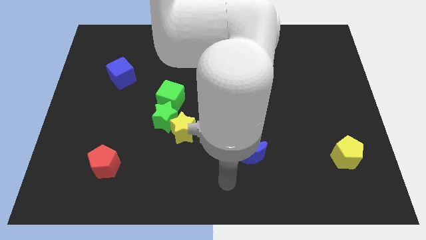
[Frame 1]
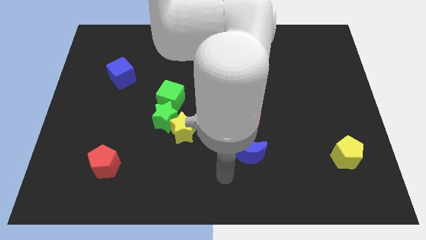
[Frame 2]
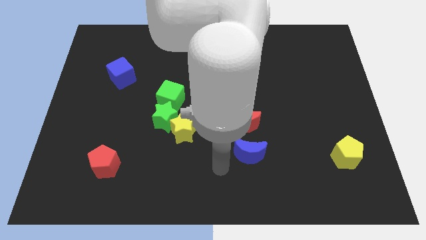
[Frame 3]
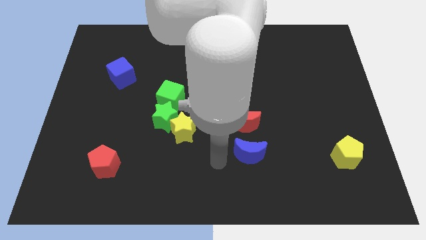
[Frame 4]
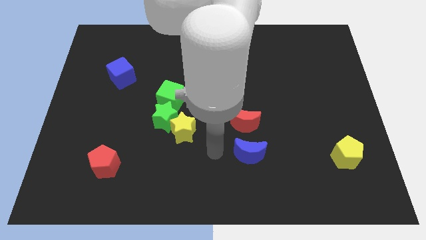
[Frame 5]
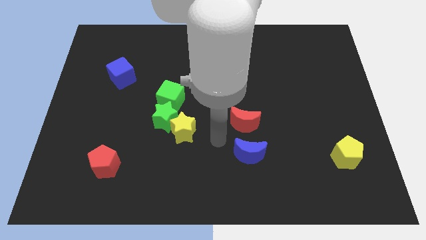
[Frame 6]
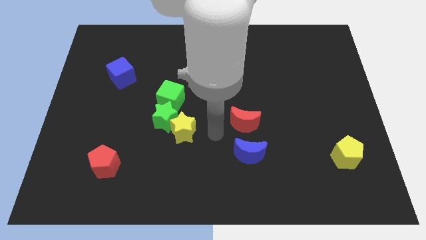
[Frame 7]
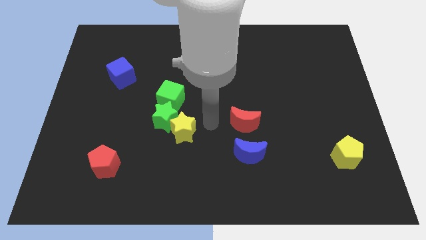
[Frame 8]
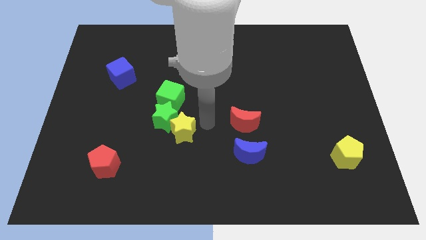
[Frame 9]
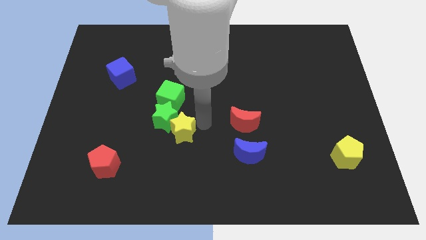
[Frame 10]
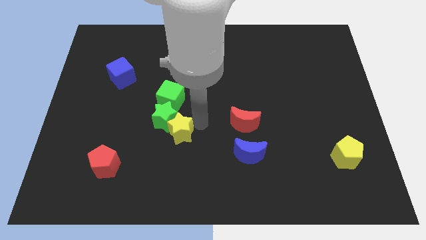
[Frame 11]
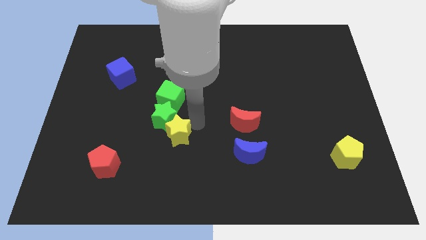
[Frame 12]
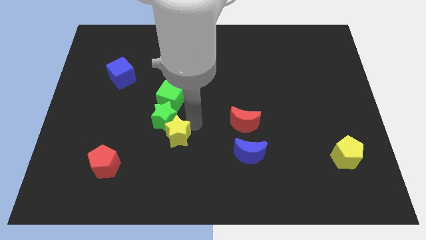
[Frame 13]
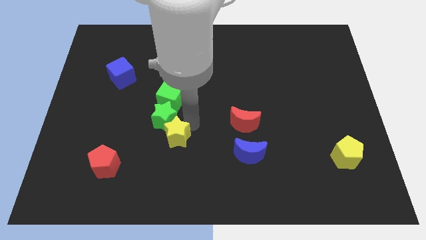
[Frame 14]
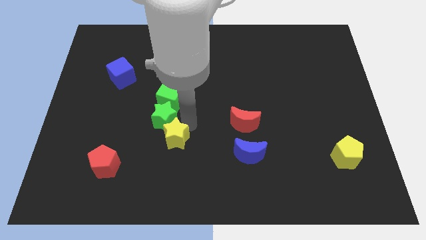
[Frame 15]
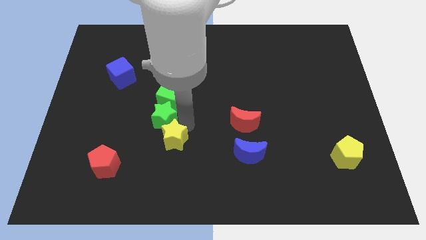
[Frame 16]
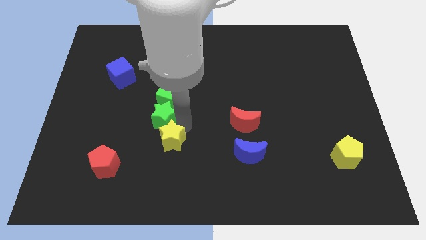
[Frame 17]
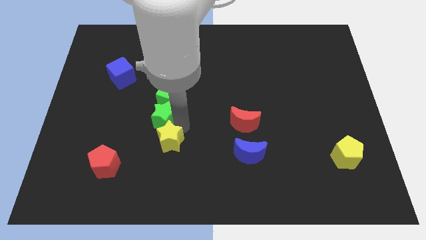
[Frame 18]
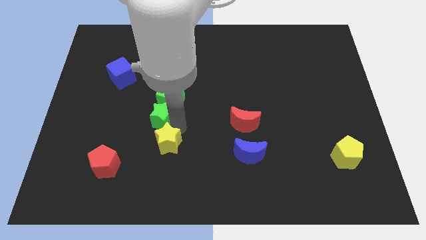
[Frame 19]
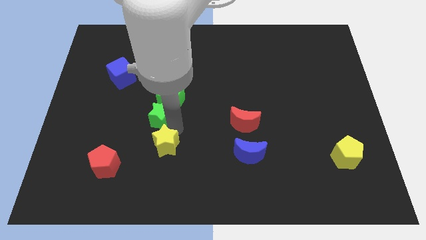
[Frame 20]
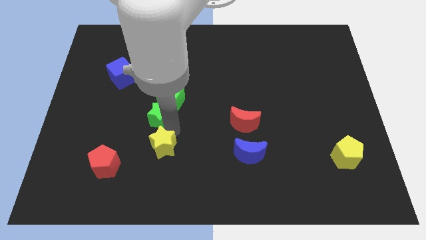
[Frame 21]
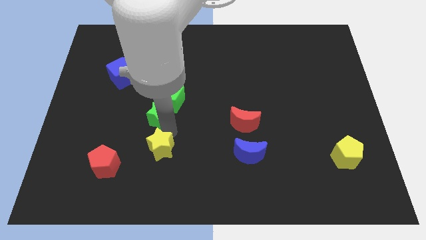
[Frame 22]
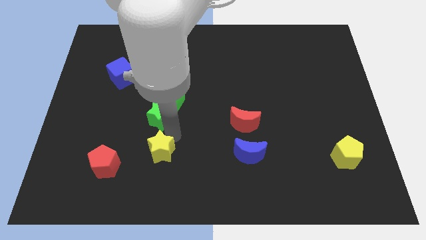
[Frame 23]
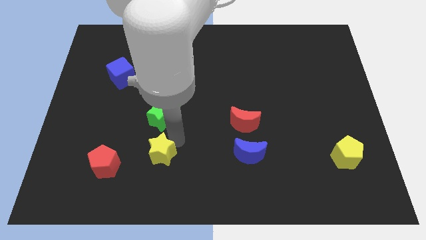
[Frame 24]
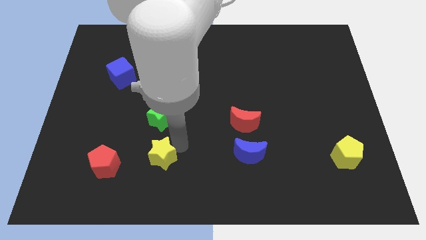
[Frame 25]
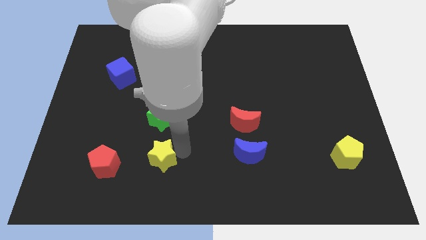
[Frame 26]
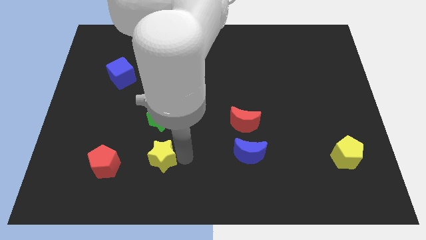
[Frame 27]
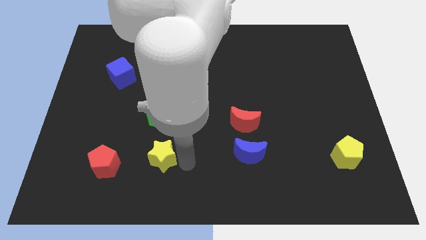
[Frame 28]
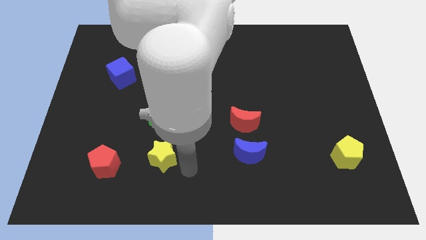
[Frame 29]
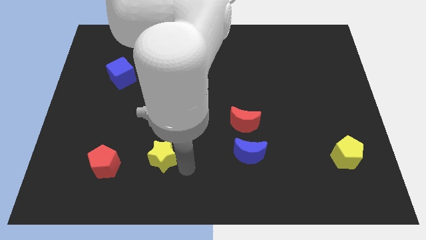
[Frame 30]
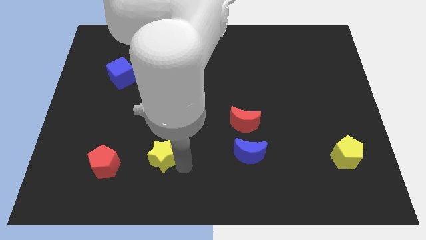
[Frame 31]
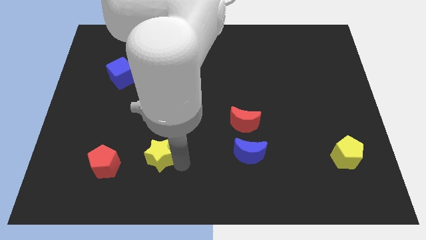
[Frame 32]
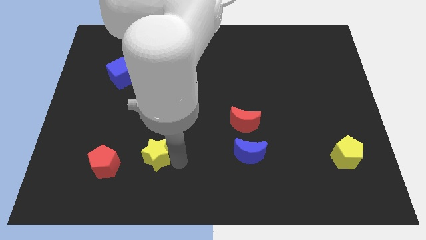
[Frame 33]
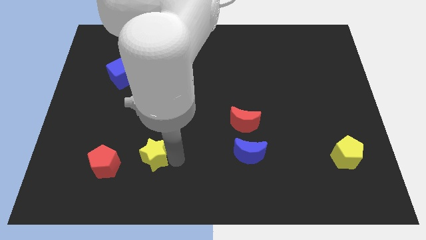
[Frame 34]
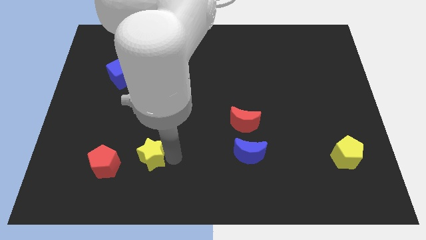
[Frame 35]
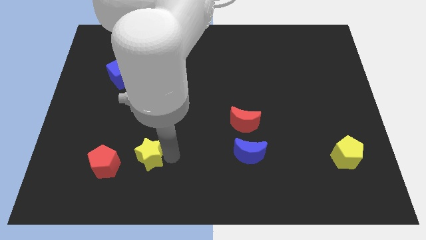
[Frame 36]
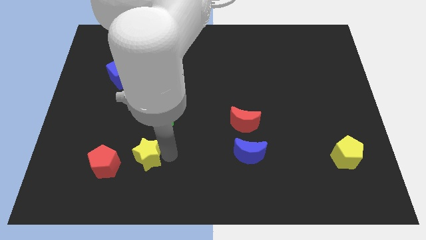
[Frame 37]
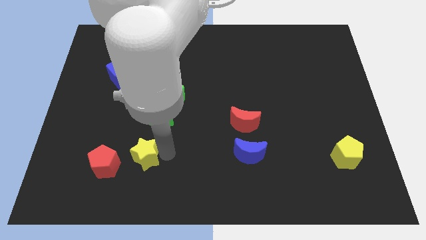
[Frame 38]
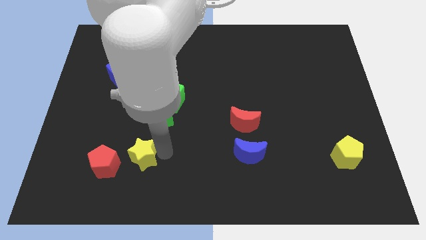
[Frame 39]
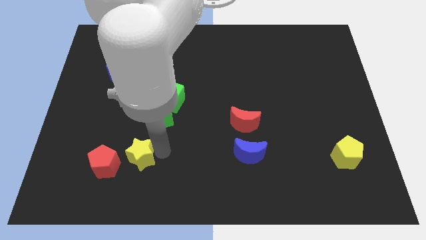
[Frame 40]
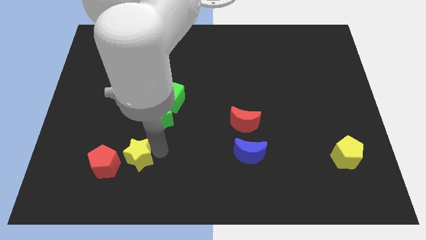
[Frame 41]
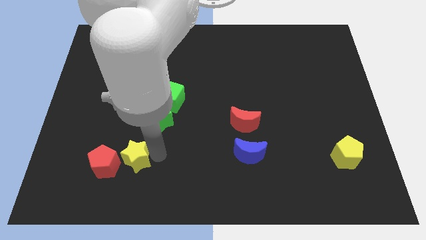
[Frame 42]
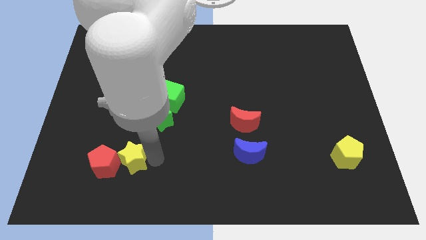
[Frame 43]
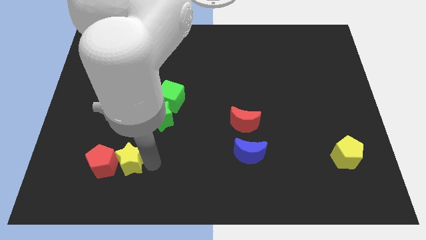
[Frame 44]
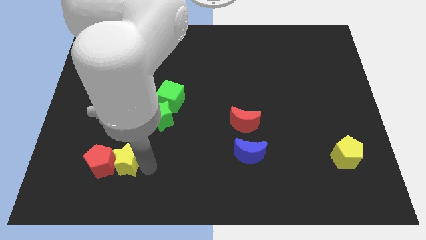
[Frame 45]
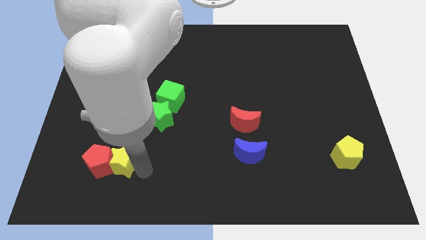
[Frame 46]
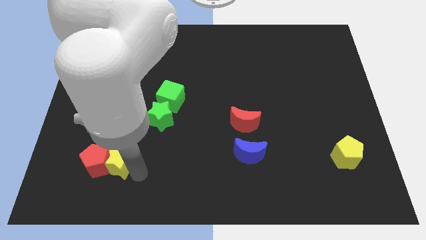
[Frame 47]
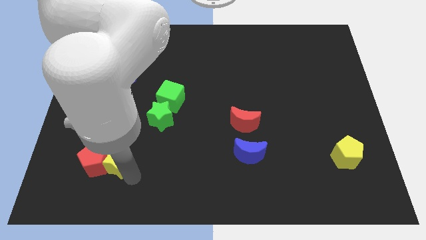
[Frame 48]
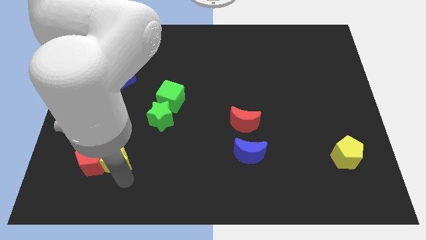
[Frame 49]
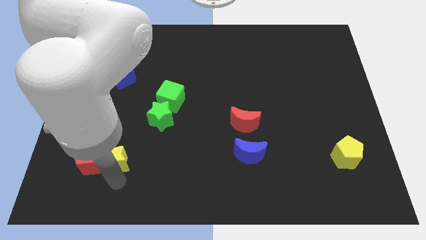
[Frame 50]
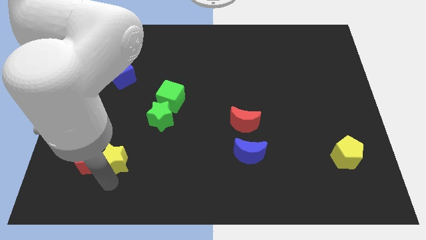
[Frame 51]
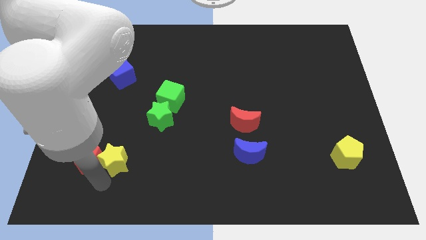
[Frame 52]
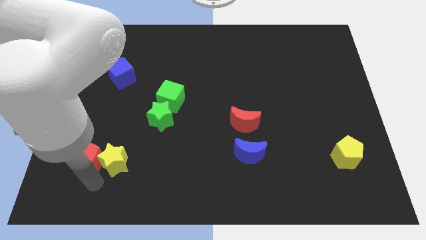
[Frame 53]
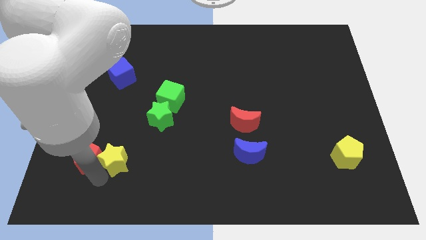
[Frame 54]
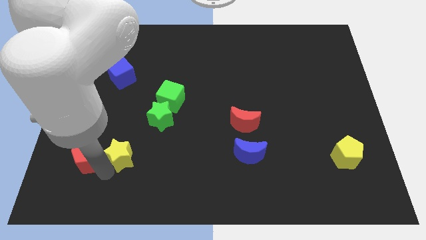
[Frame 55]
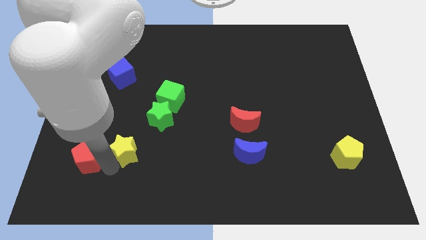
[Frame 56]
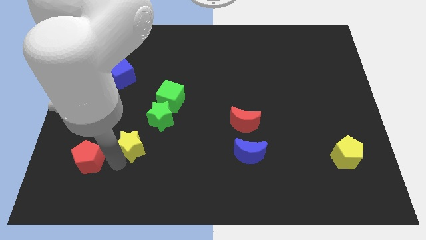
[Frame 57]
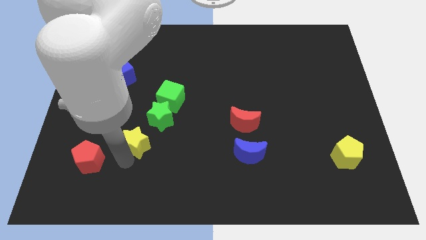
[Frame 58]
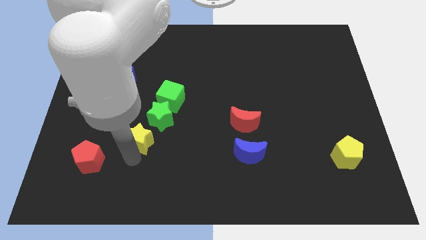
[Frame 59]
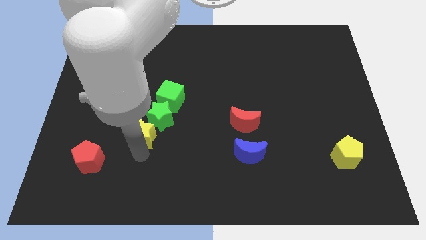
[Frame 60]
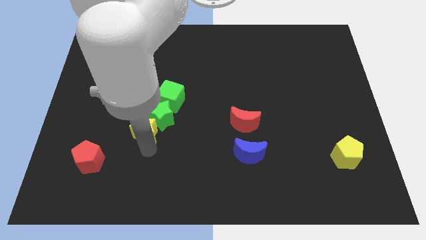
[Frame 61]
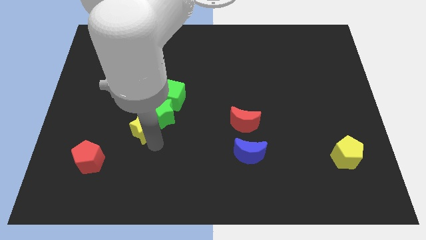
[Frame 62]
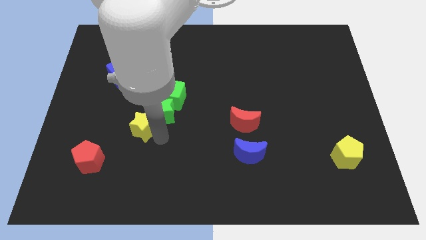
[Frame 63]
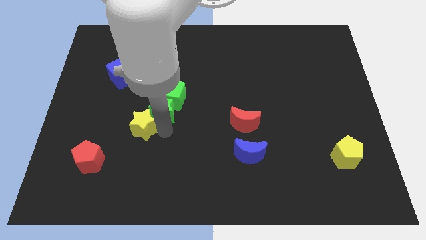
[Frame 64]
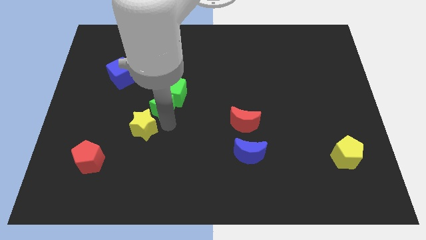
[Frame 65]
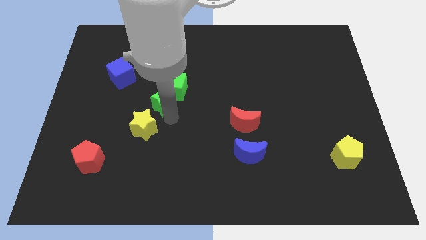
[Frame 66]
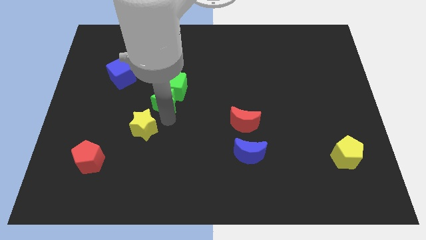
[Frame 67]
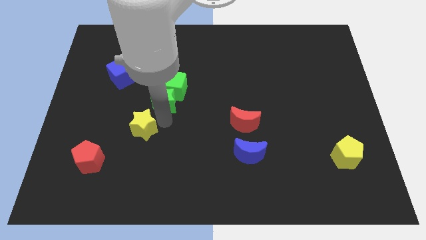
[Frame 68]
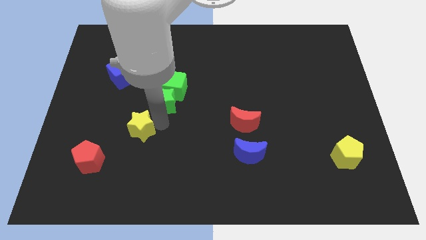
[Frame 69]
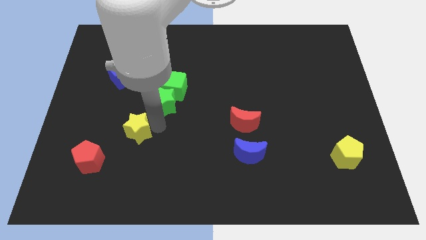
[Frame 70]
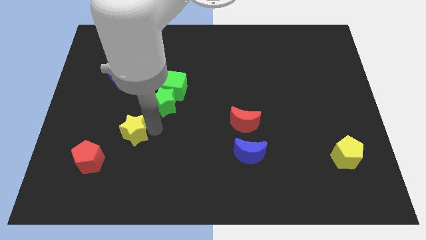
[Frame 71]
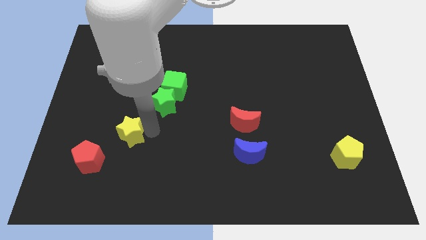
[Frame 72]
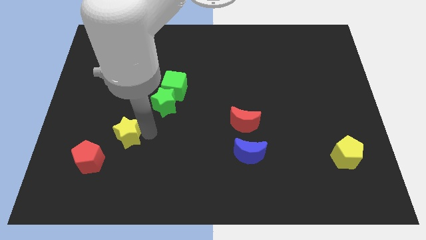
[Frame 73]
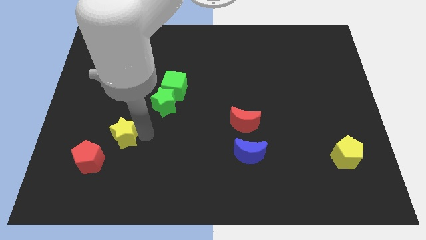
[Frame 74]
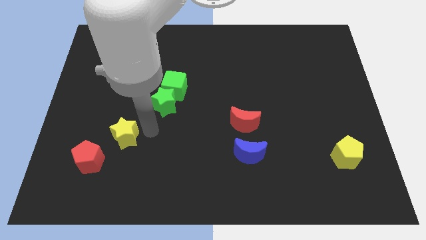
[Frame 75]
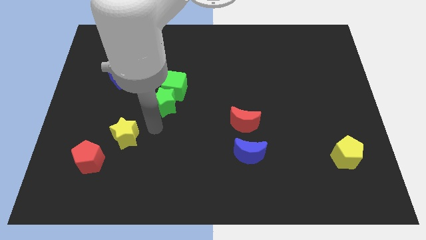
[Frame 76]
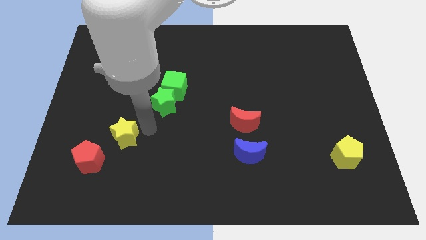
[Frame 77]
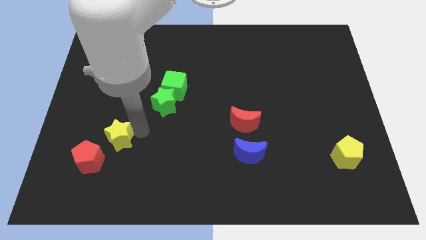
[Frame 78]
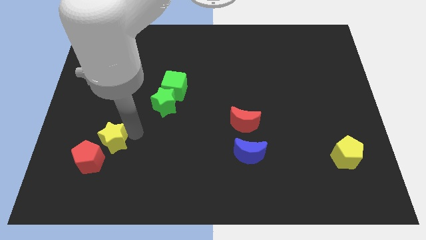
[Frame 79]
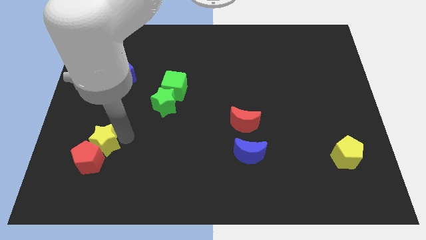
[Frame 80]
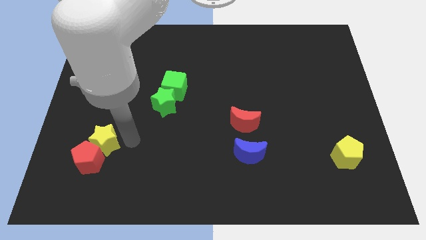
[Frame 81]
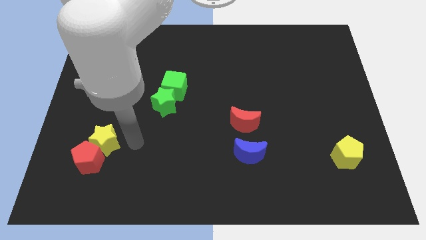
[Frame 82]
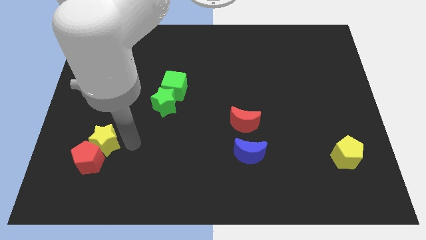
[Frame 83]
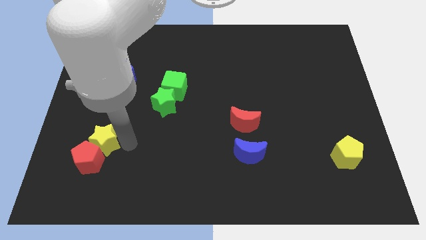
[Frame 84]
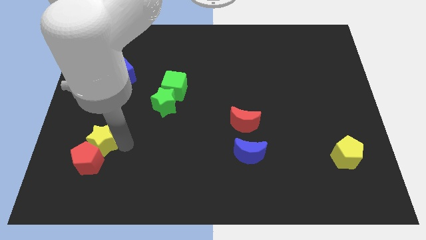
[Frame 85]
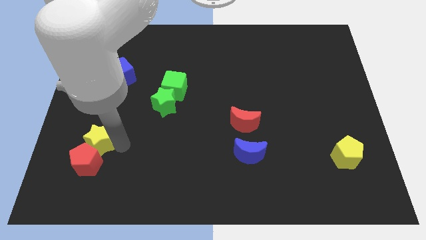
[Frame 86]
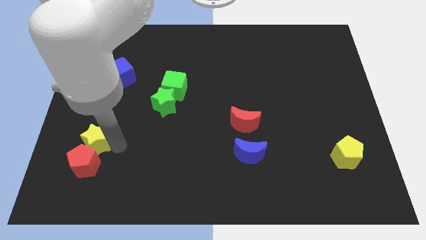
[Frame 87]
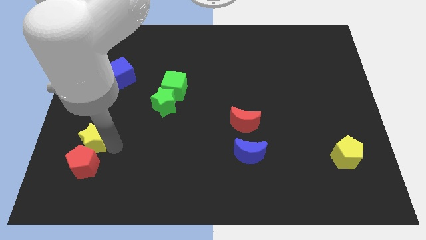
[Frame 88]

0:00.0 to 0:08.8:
push the yellow star to the top left side of the red pentagon
